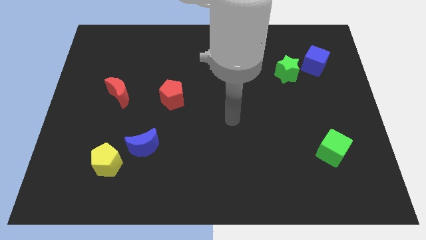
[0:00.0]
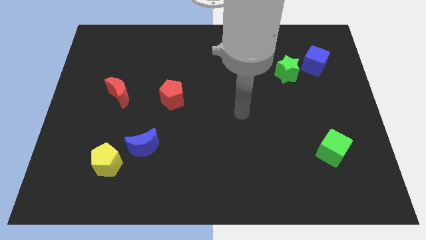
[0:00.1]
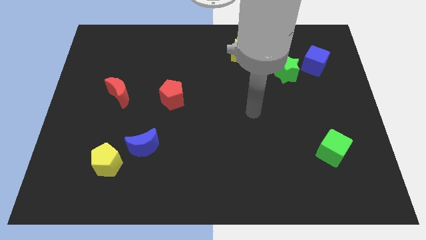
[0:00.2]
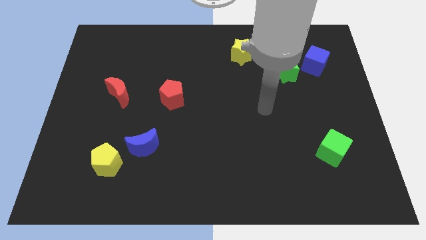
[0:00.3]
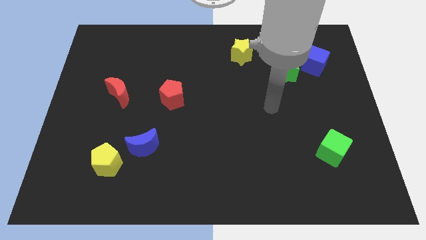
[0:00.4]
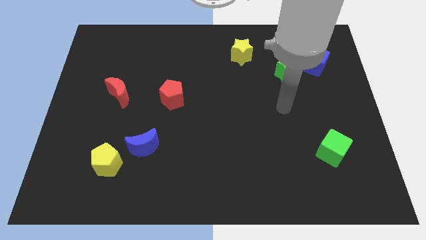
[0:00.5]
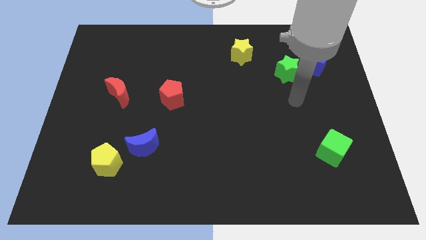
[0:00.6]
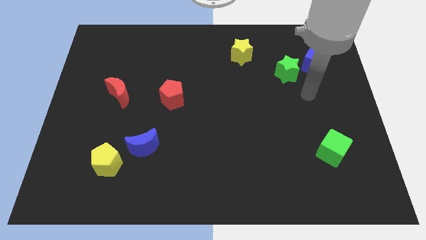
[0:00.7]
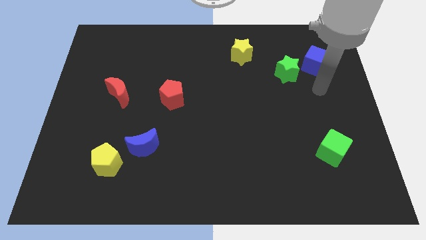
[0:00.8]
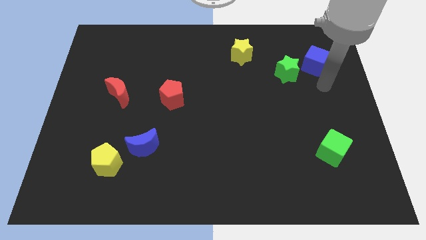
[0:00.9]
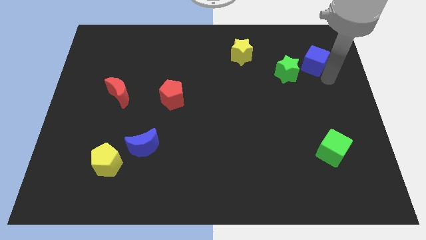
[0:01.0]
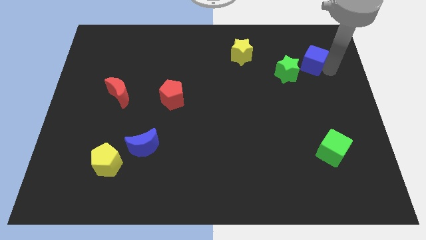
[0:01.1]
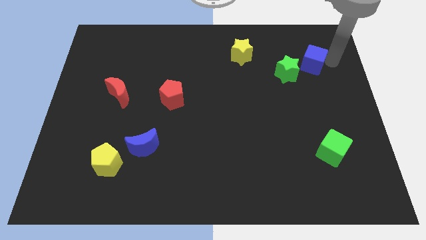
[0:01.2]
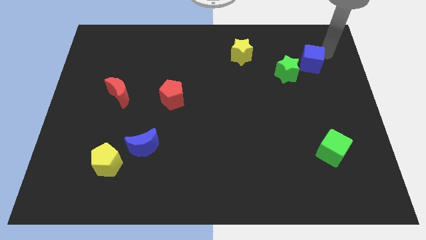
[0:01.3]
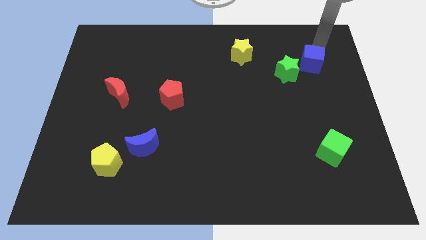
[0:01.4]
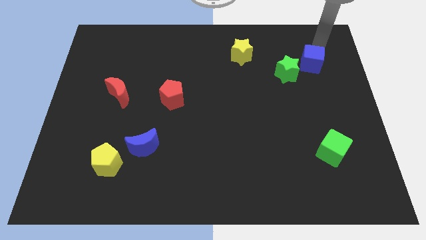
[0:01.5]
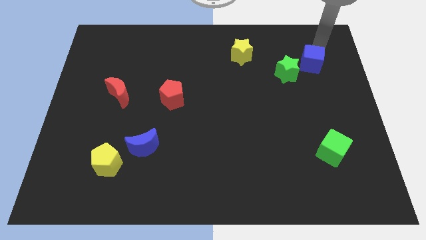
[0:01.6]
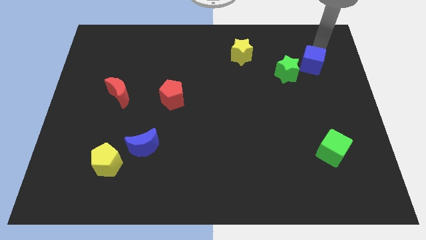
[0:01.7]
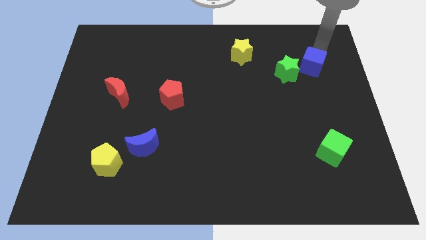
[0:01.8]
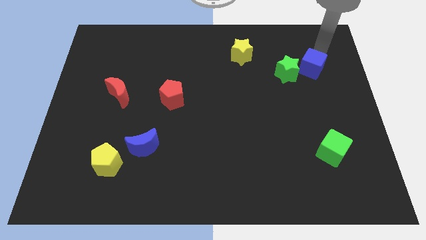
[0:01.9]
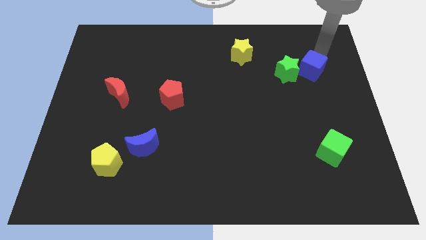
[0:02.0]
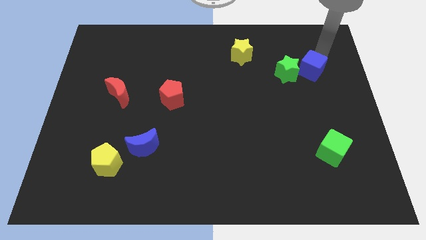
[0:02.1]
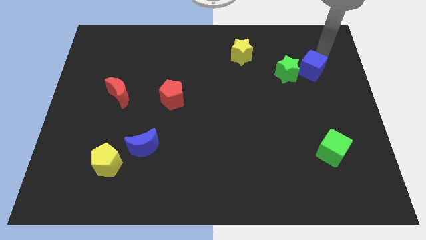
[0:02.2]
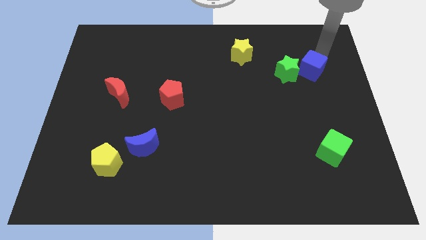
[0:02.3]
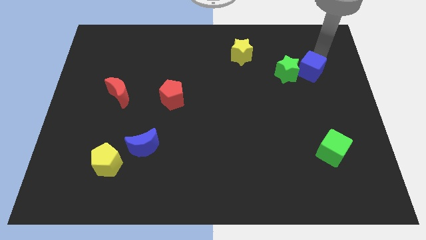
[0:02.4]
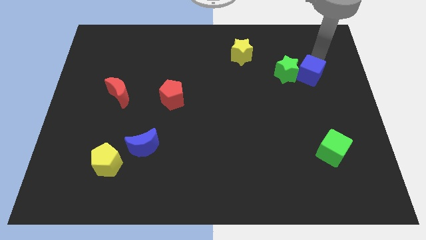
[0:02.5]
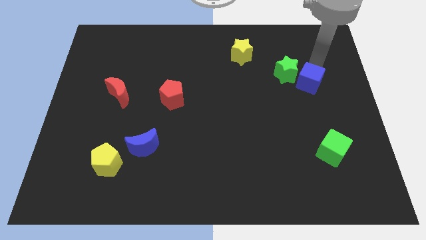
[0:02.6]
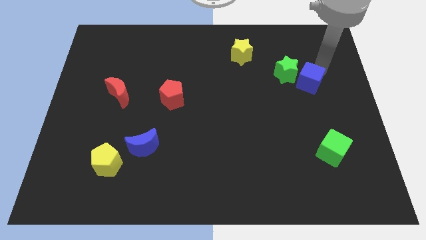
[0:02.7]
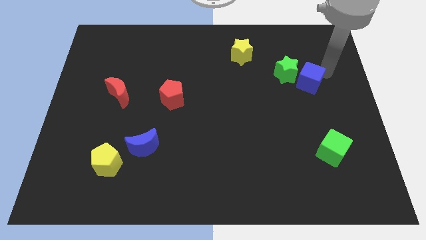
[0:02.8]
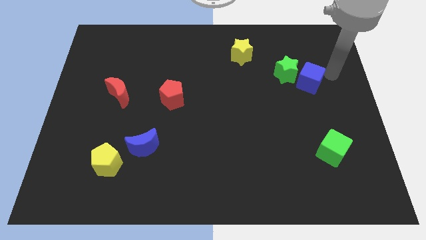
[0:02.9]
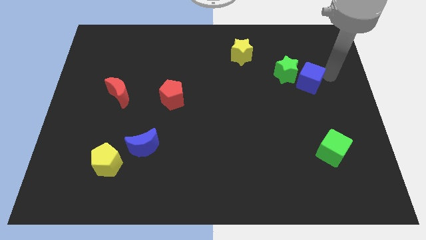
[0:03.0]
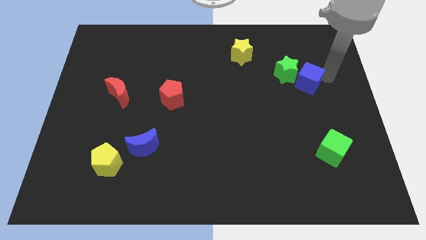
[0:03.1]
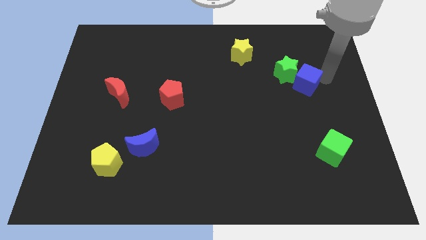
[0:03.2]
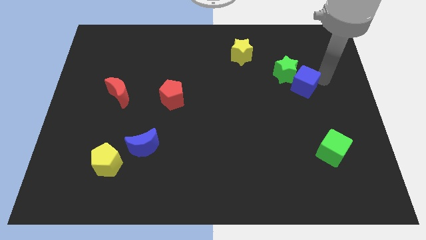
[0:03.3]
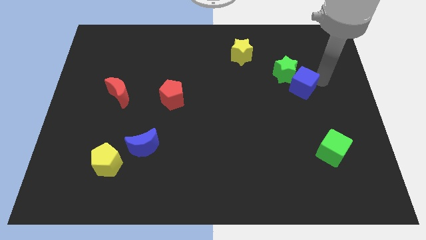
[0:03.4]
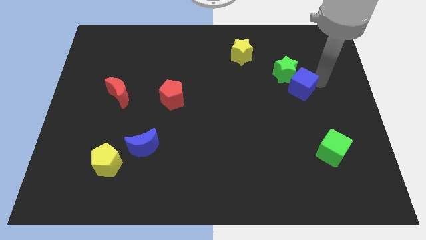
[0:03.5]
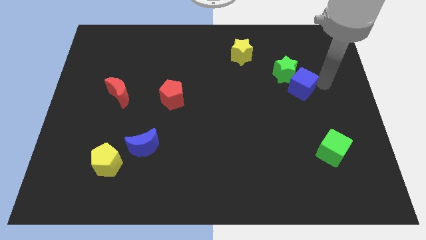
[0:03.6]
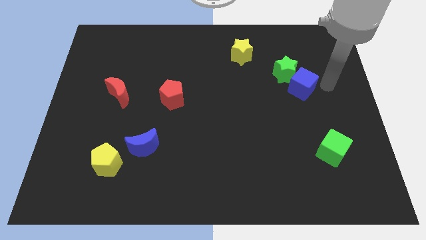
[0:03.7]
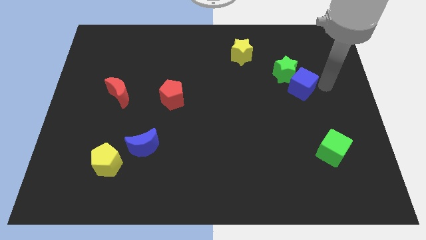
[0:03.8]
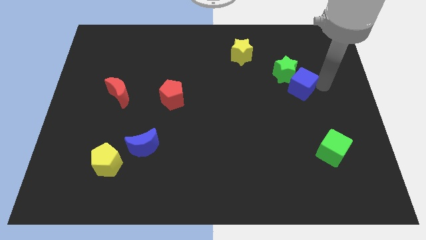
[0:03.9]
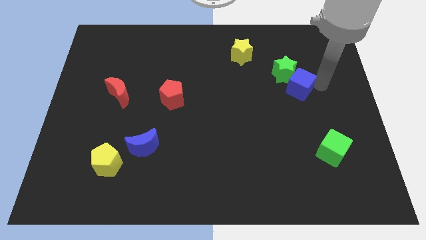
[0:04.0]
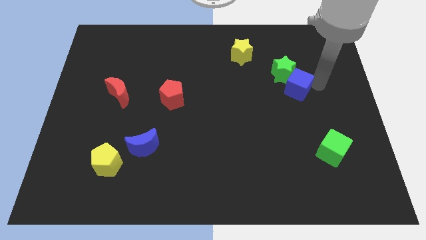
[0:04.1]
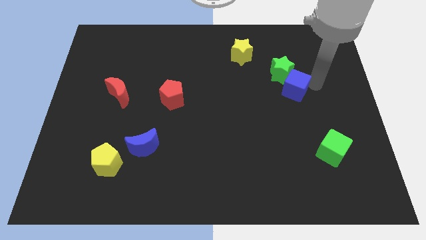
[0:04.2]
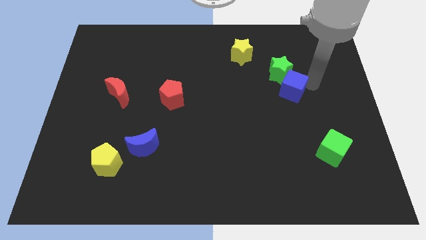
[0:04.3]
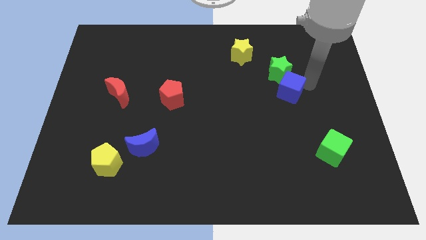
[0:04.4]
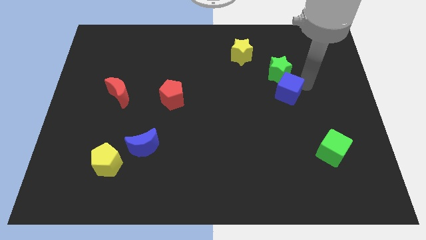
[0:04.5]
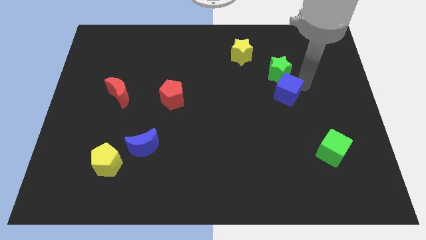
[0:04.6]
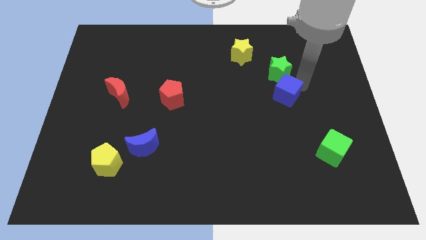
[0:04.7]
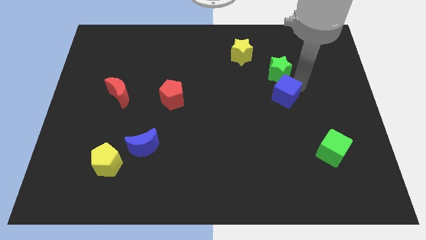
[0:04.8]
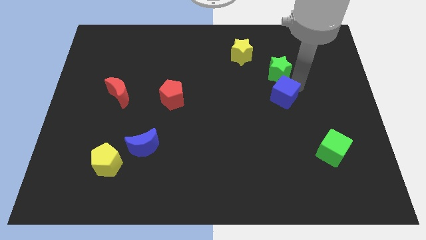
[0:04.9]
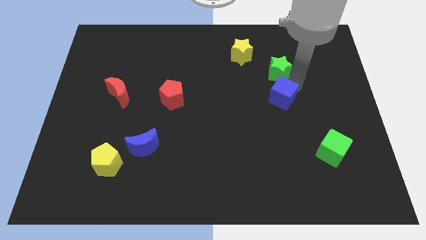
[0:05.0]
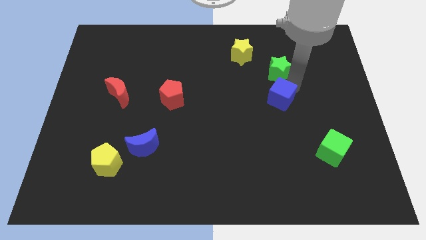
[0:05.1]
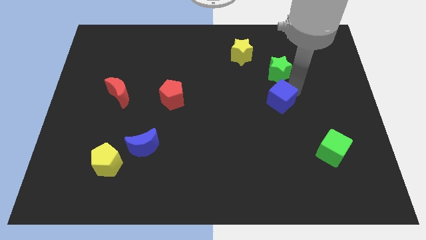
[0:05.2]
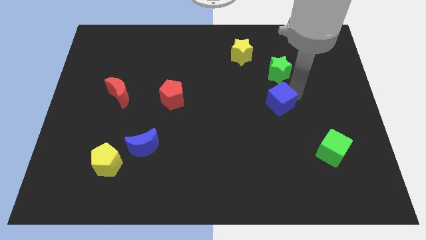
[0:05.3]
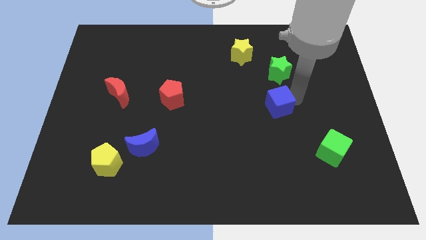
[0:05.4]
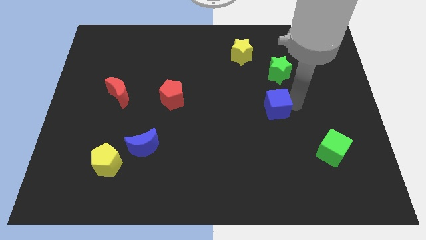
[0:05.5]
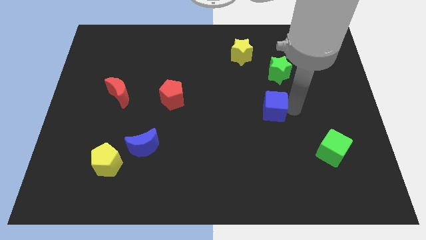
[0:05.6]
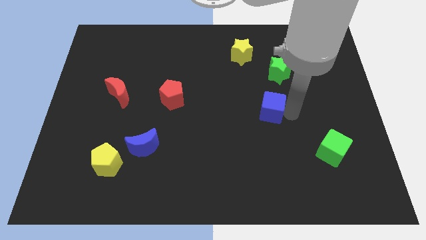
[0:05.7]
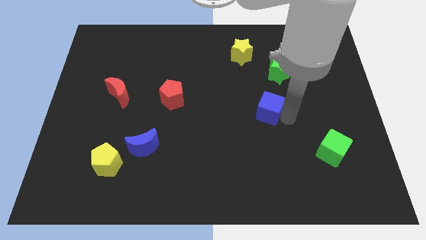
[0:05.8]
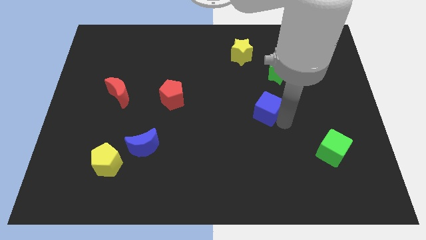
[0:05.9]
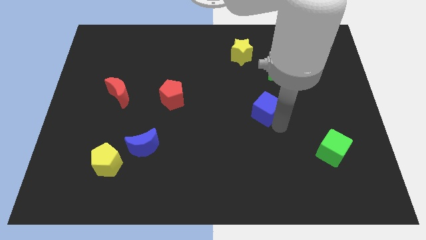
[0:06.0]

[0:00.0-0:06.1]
move the blue cube to the middle of the board

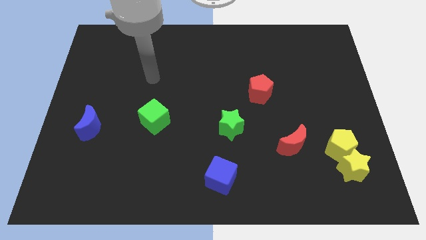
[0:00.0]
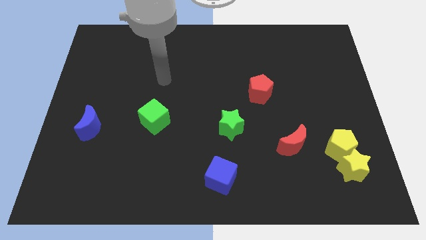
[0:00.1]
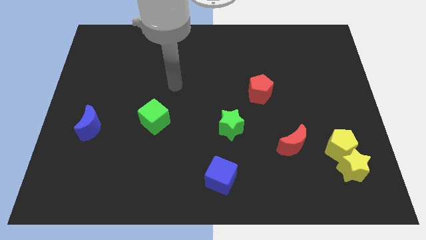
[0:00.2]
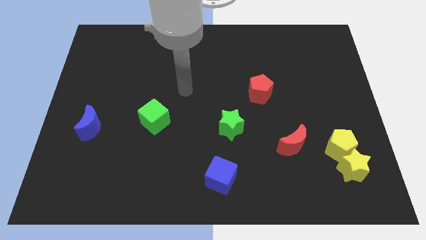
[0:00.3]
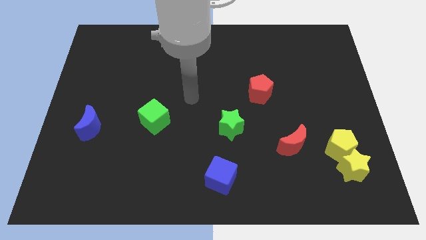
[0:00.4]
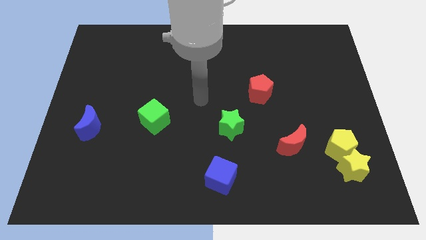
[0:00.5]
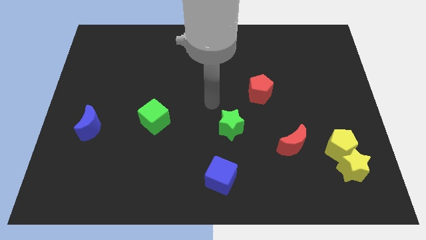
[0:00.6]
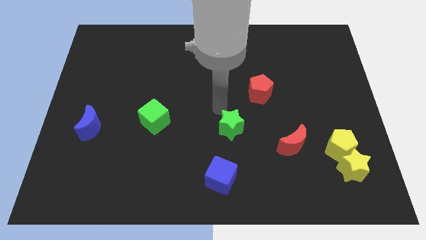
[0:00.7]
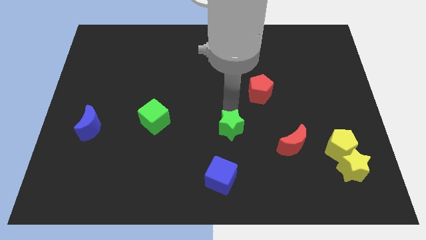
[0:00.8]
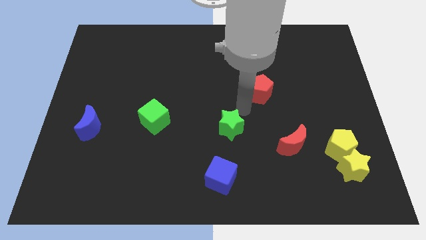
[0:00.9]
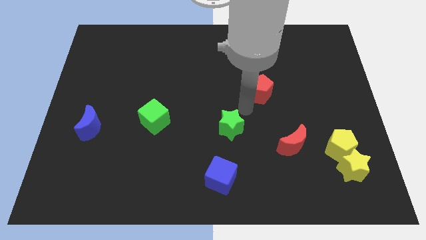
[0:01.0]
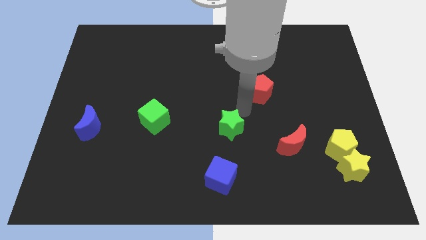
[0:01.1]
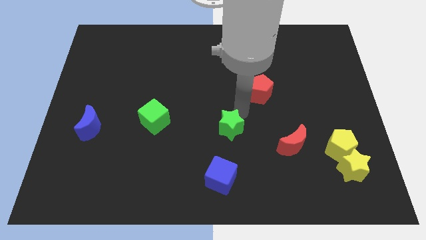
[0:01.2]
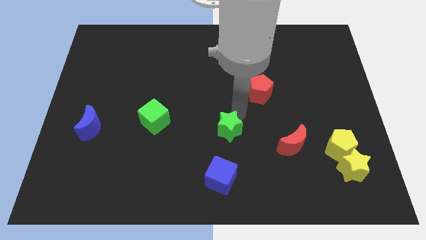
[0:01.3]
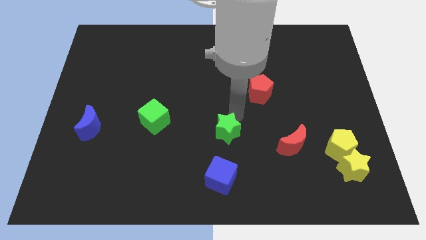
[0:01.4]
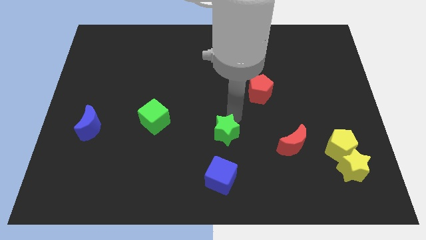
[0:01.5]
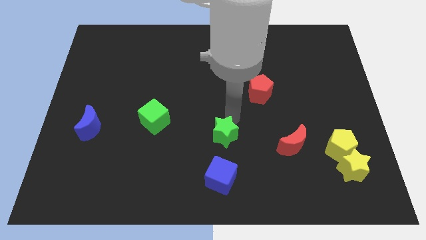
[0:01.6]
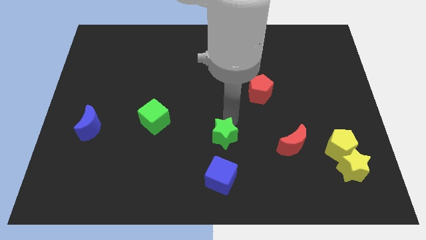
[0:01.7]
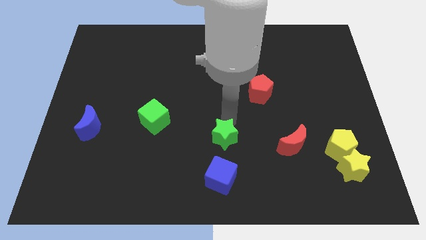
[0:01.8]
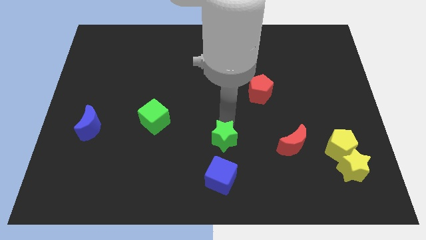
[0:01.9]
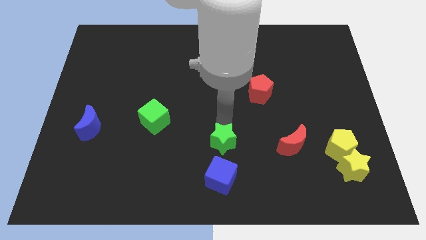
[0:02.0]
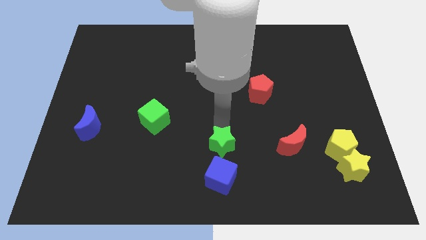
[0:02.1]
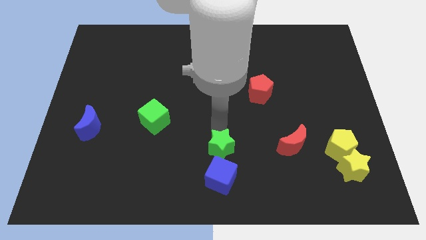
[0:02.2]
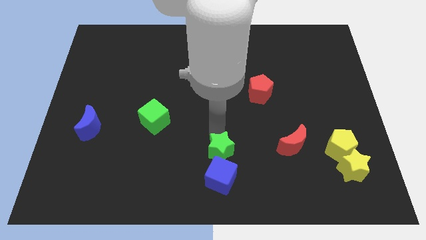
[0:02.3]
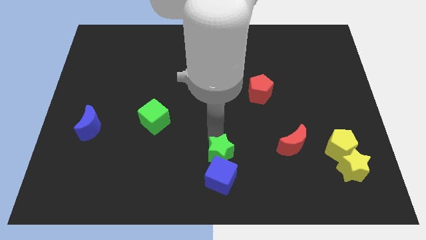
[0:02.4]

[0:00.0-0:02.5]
push the green star to the bottom side

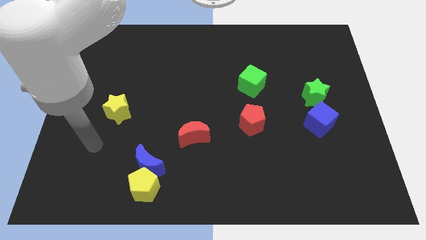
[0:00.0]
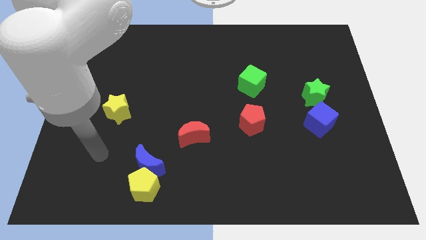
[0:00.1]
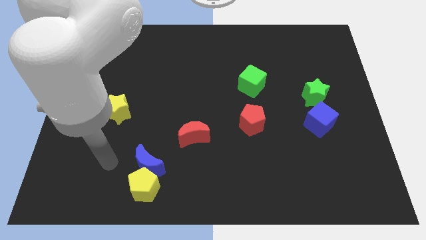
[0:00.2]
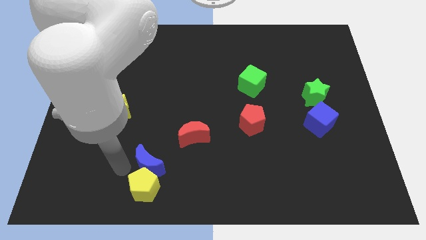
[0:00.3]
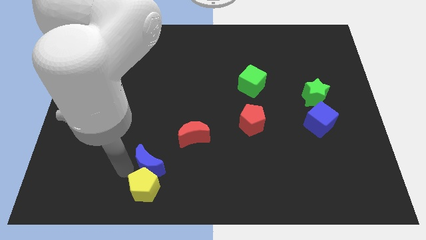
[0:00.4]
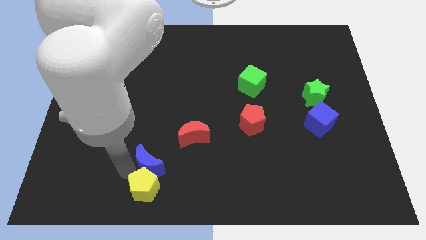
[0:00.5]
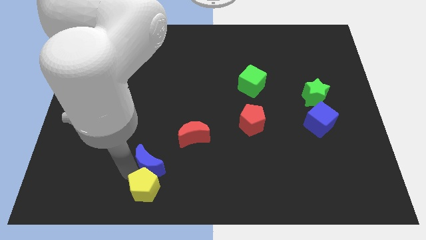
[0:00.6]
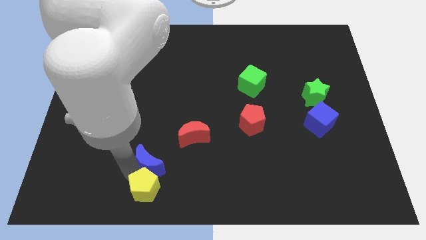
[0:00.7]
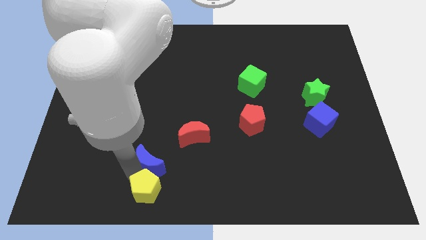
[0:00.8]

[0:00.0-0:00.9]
put the yellow pentagon to the bottom
